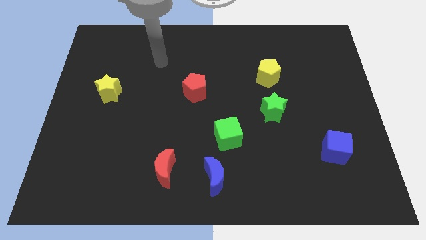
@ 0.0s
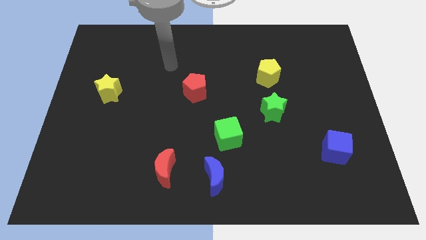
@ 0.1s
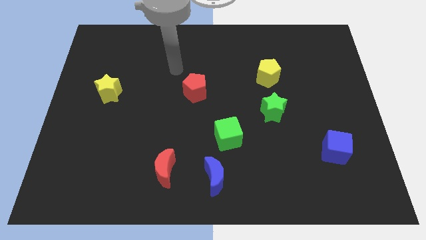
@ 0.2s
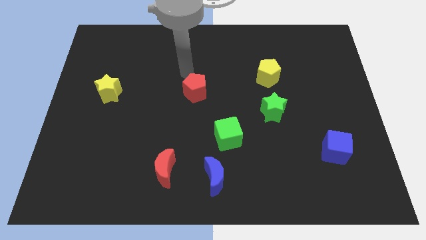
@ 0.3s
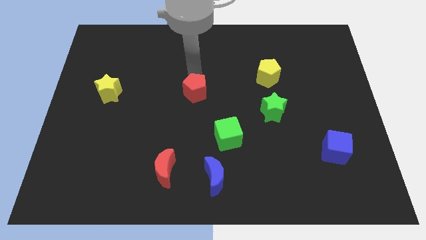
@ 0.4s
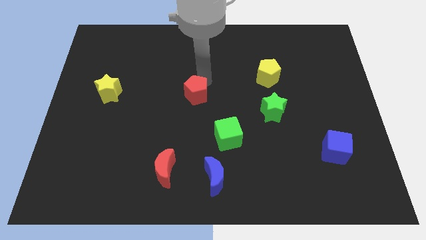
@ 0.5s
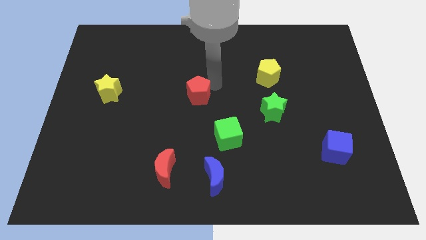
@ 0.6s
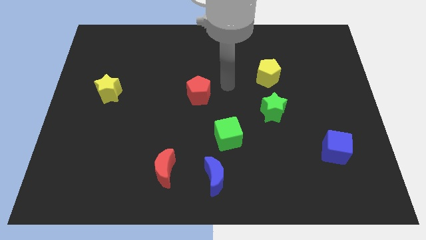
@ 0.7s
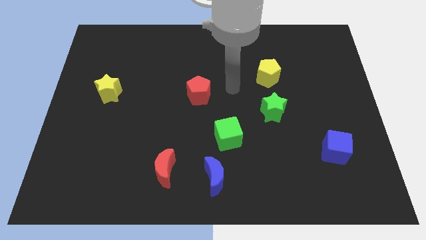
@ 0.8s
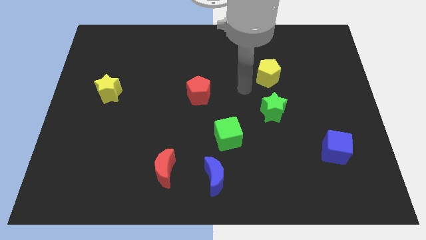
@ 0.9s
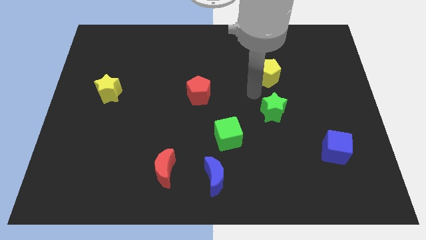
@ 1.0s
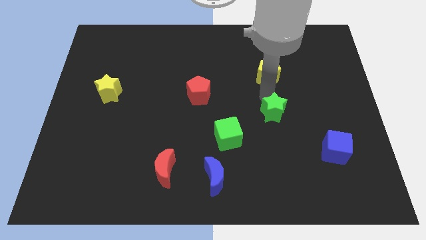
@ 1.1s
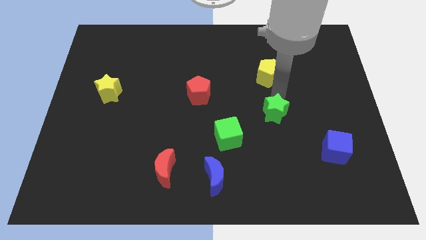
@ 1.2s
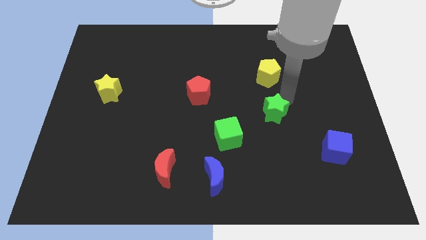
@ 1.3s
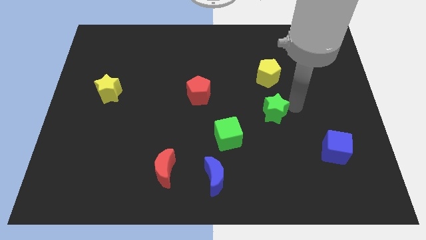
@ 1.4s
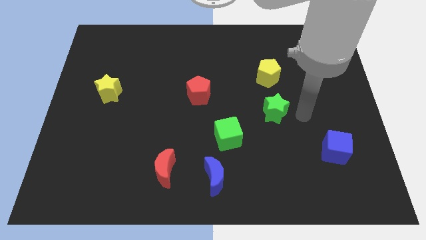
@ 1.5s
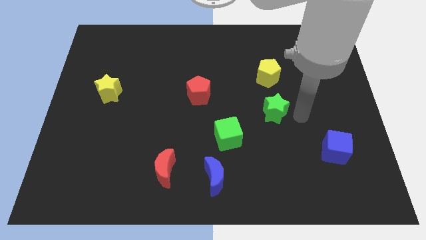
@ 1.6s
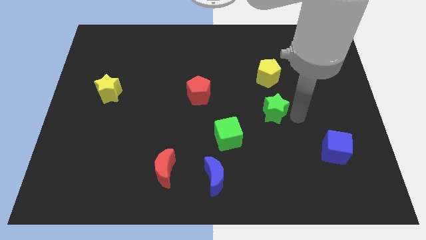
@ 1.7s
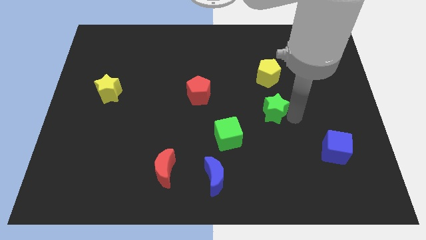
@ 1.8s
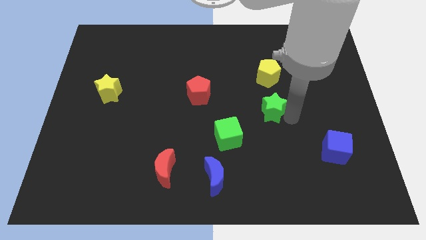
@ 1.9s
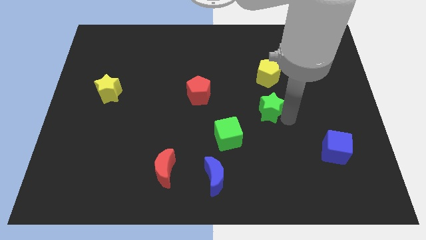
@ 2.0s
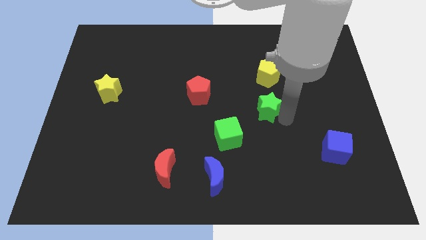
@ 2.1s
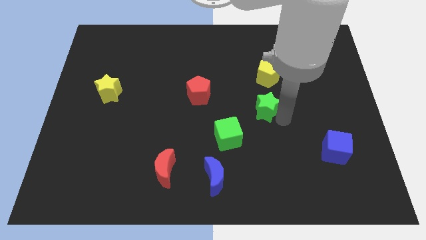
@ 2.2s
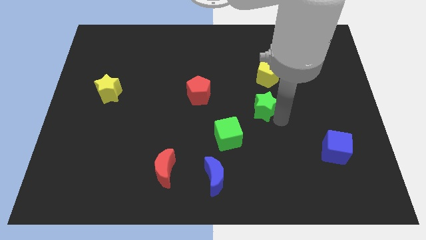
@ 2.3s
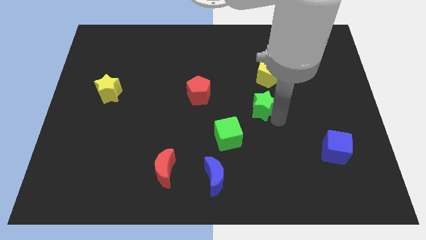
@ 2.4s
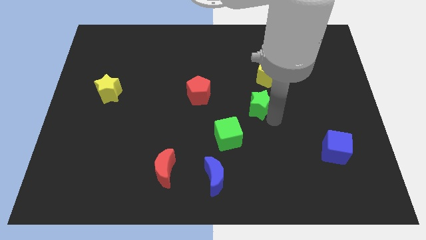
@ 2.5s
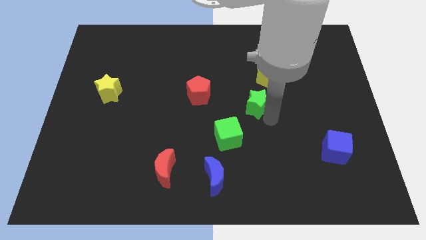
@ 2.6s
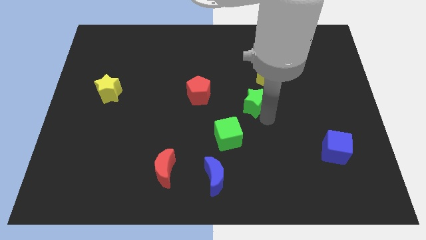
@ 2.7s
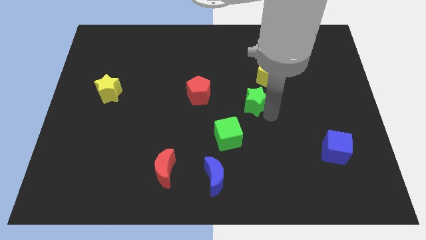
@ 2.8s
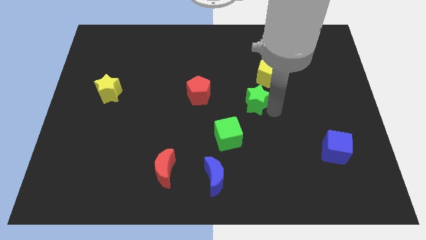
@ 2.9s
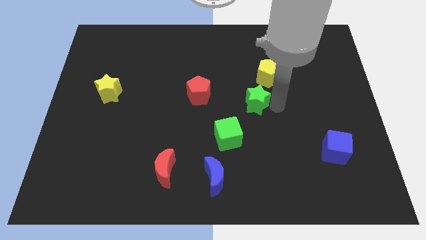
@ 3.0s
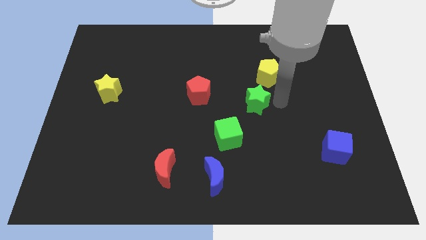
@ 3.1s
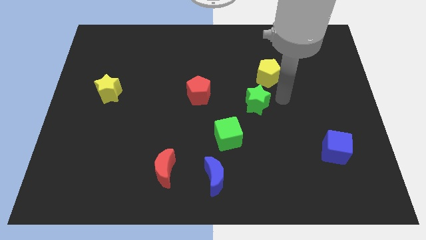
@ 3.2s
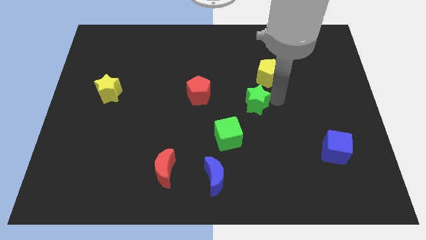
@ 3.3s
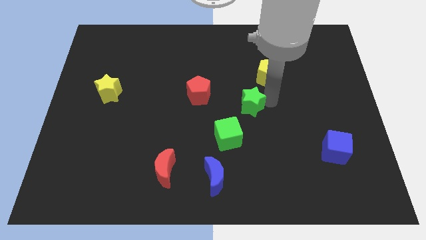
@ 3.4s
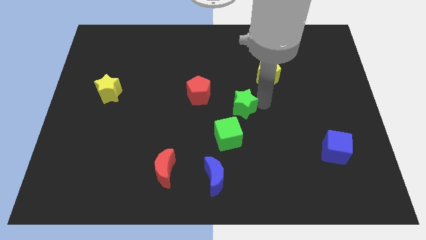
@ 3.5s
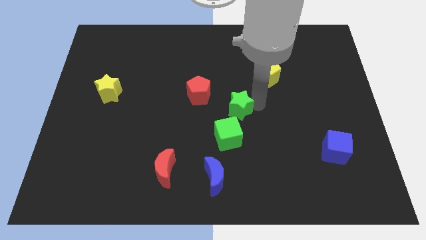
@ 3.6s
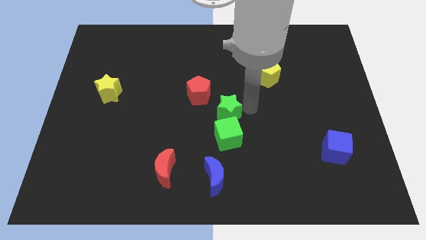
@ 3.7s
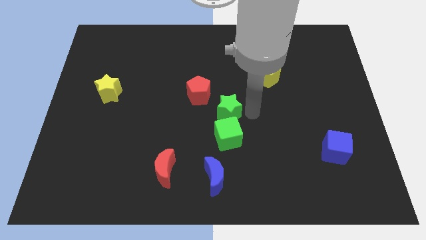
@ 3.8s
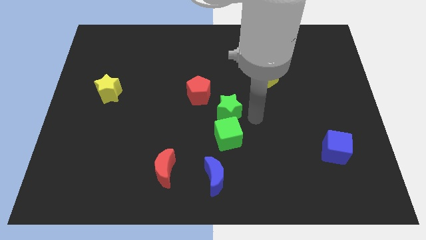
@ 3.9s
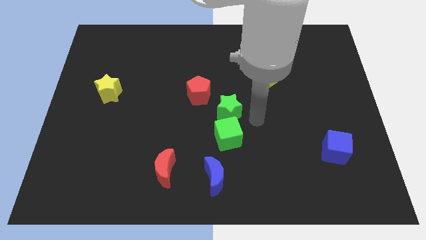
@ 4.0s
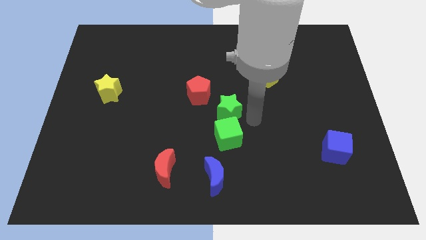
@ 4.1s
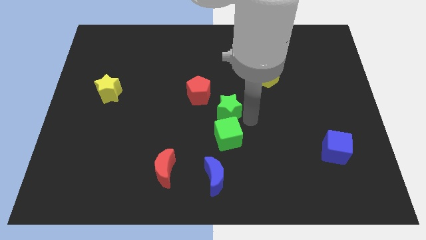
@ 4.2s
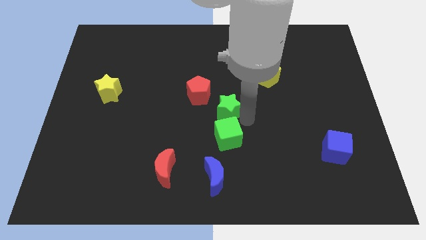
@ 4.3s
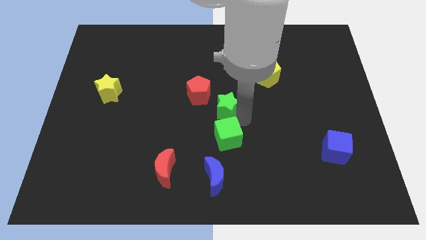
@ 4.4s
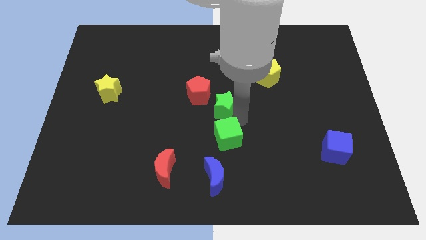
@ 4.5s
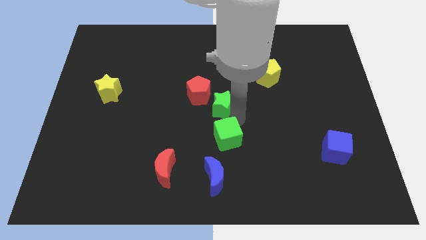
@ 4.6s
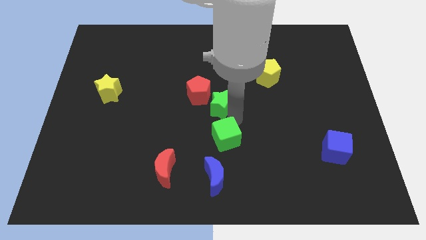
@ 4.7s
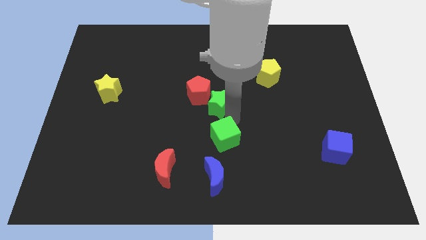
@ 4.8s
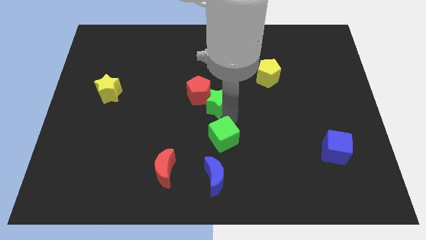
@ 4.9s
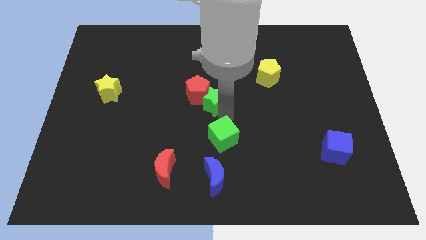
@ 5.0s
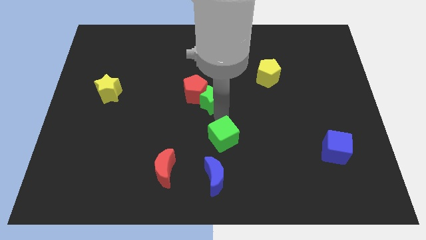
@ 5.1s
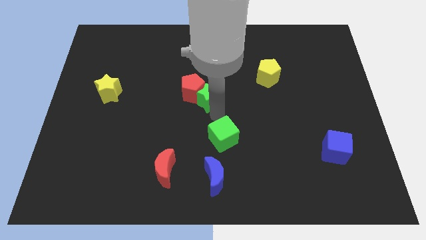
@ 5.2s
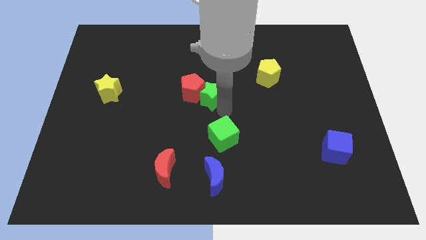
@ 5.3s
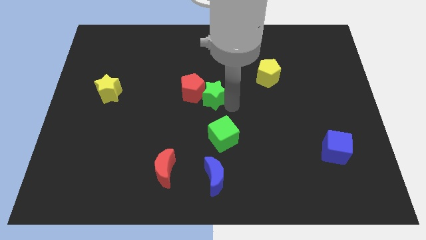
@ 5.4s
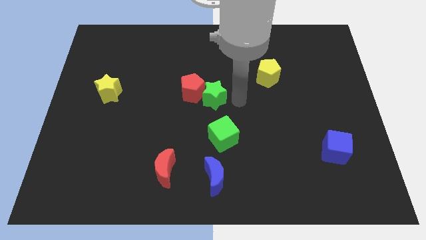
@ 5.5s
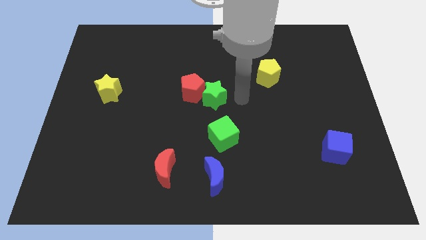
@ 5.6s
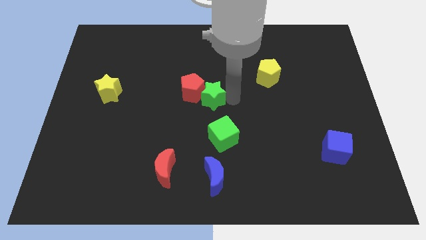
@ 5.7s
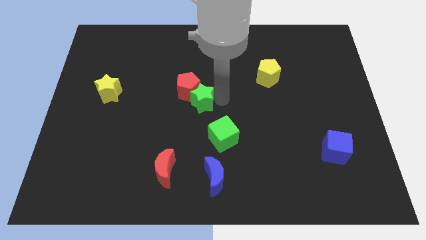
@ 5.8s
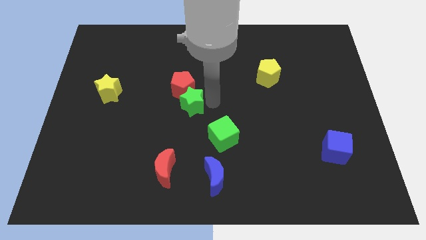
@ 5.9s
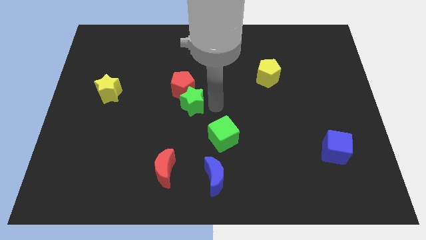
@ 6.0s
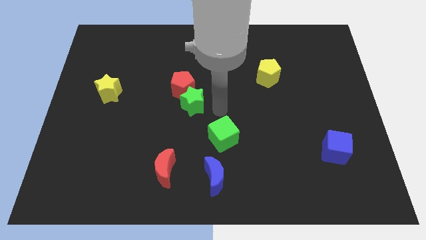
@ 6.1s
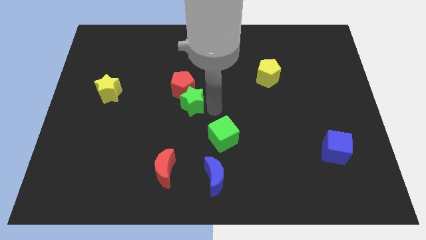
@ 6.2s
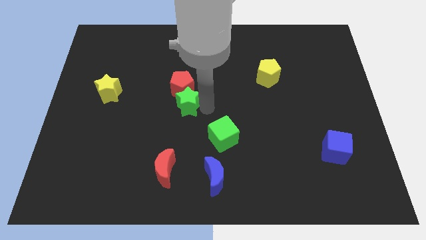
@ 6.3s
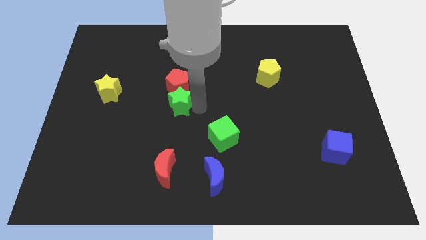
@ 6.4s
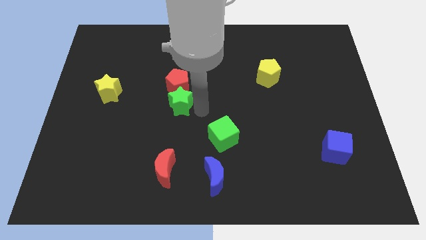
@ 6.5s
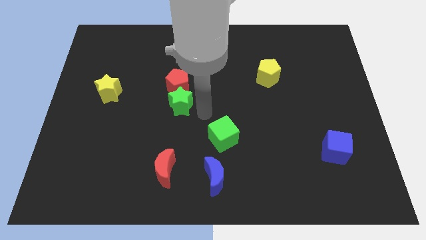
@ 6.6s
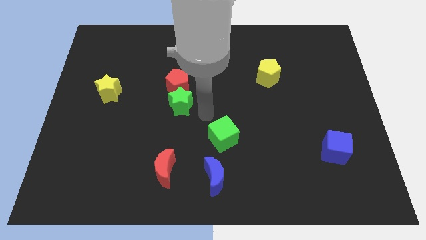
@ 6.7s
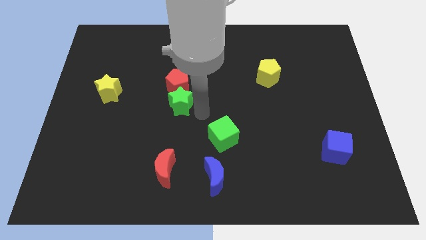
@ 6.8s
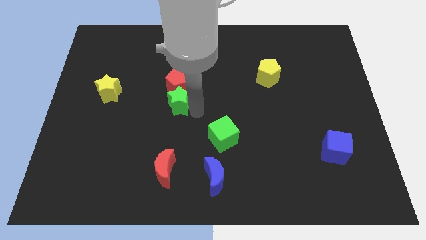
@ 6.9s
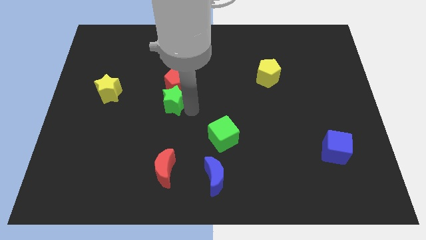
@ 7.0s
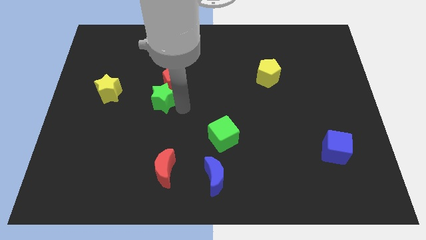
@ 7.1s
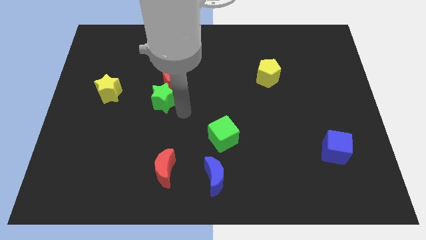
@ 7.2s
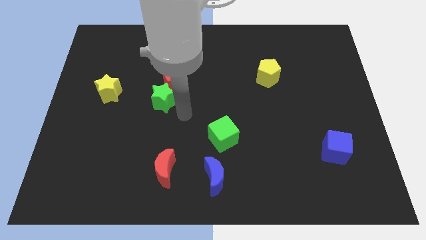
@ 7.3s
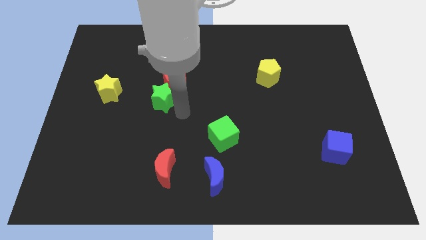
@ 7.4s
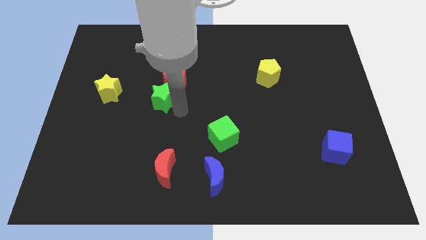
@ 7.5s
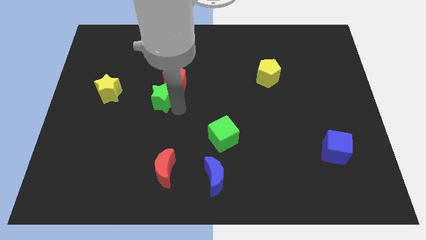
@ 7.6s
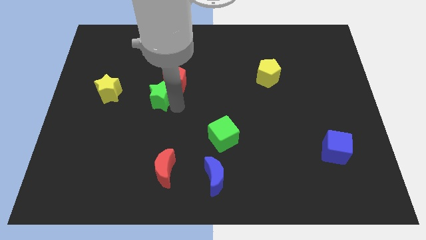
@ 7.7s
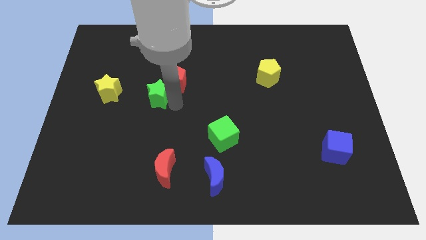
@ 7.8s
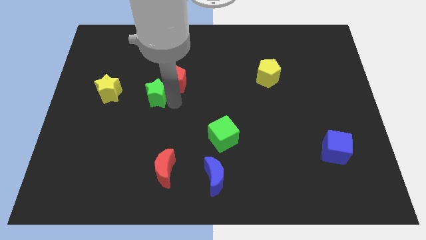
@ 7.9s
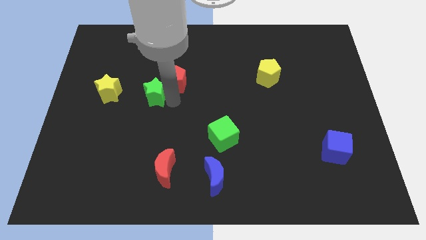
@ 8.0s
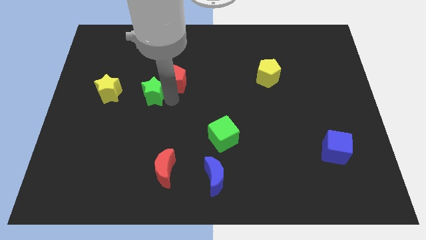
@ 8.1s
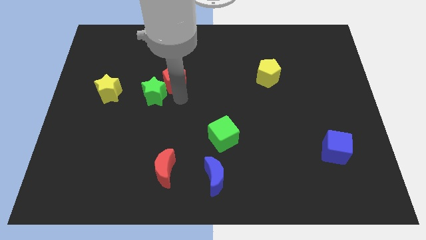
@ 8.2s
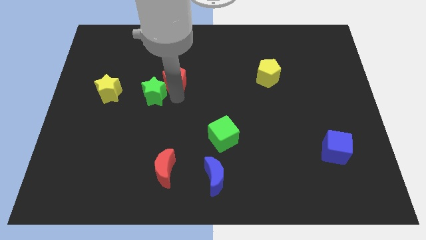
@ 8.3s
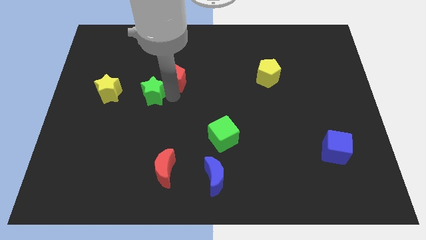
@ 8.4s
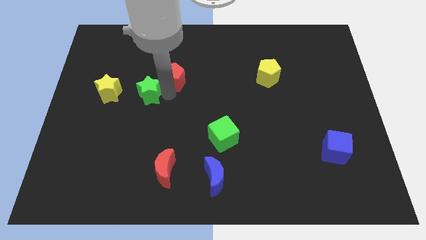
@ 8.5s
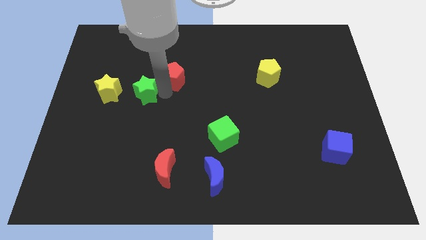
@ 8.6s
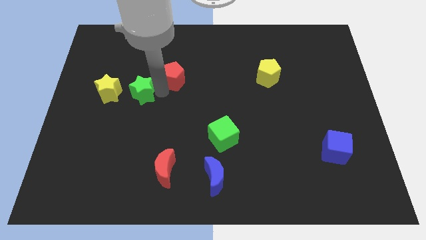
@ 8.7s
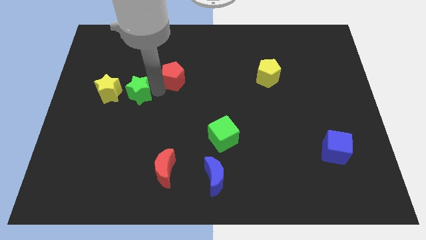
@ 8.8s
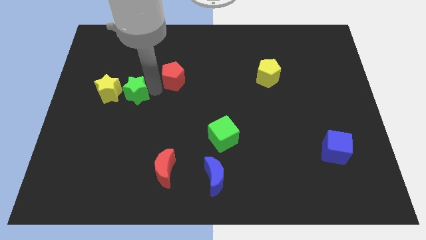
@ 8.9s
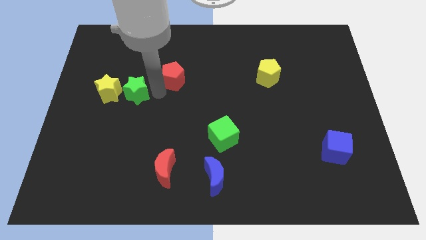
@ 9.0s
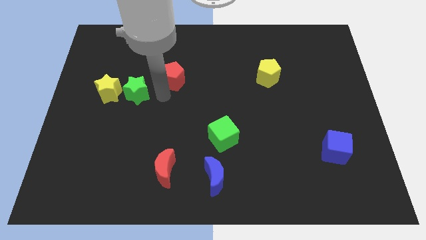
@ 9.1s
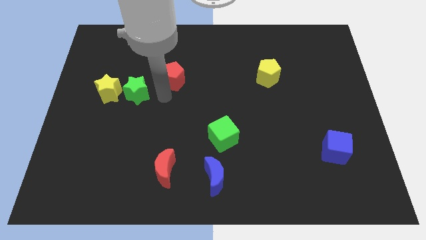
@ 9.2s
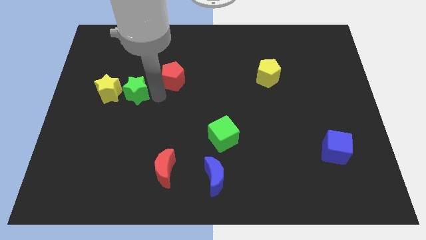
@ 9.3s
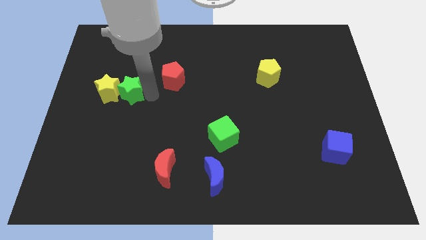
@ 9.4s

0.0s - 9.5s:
put the green star next to the yellow star
